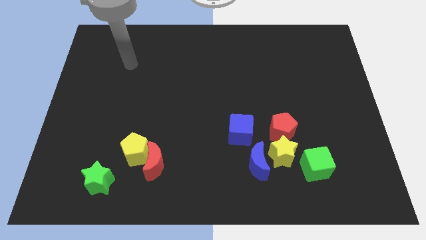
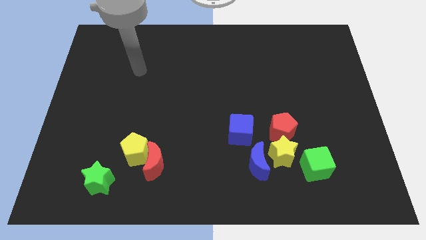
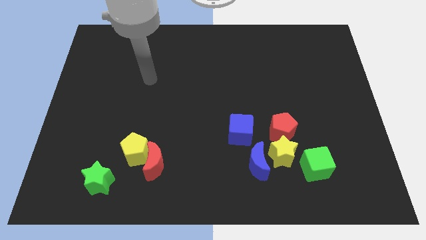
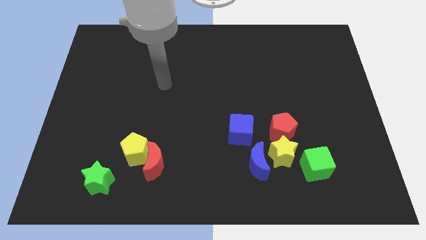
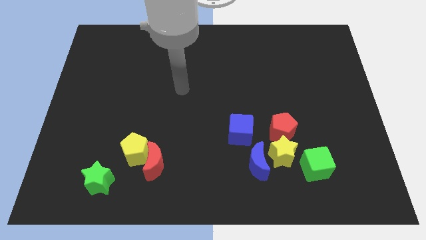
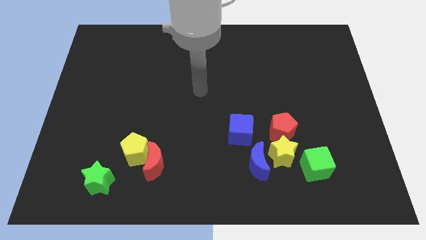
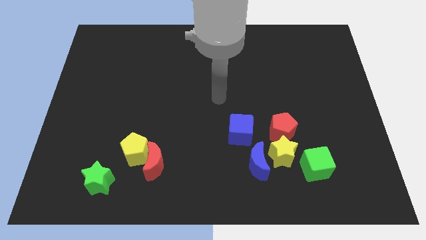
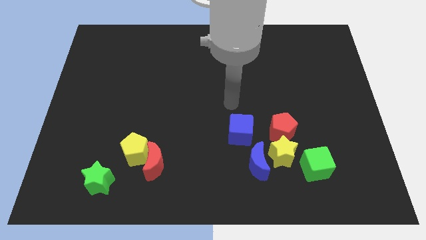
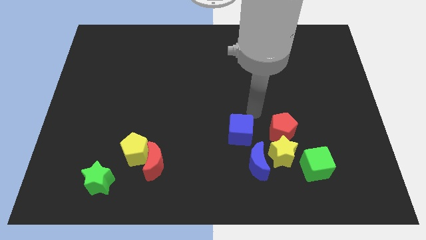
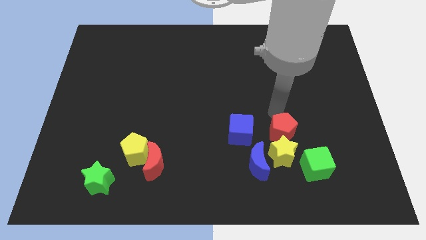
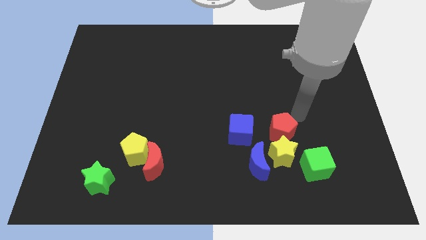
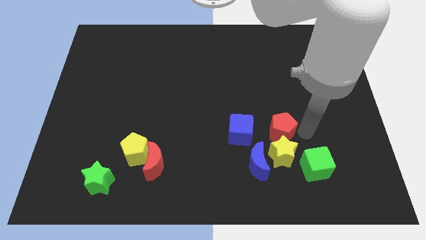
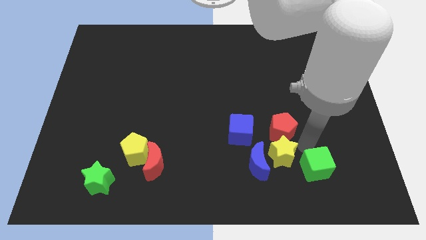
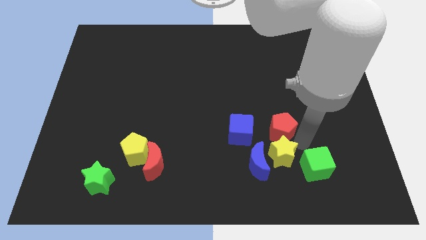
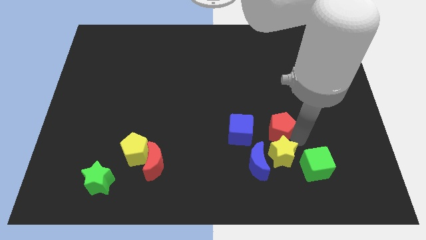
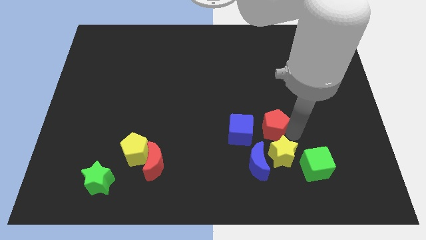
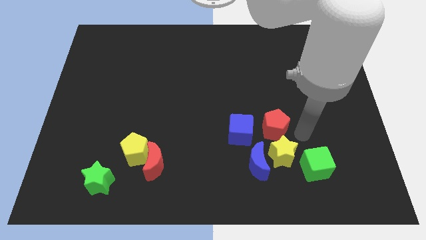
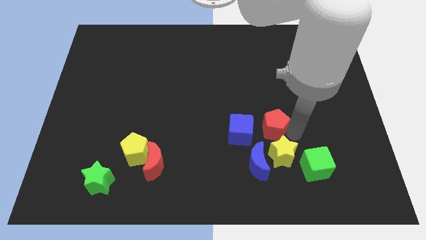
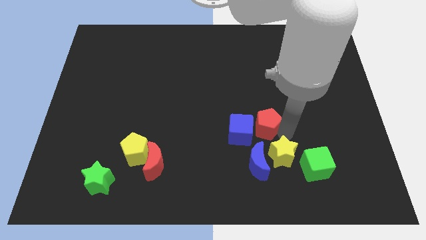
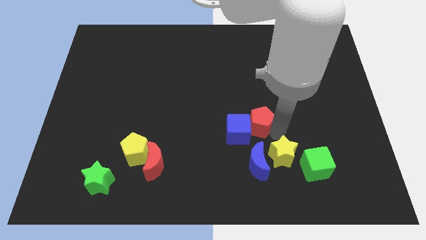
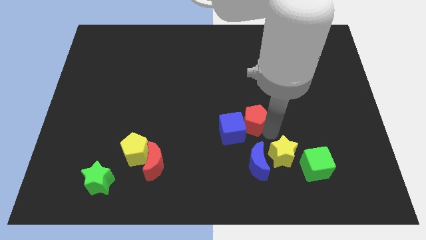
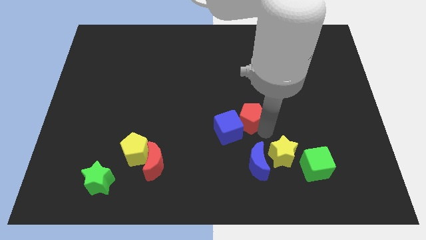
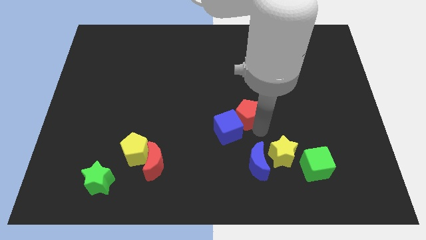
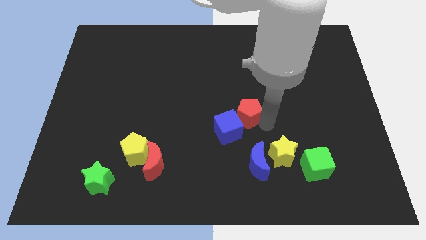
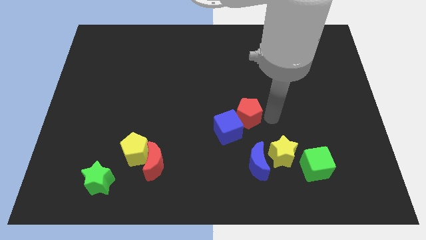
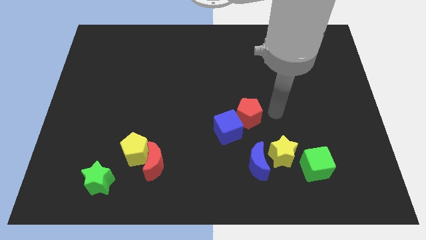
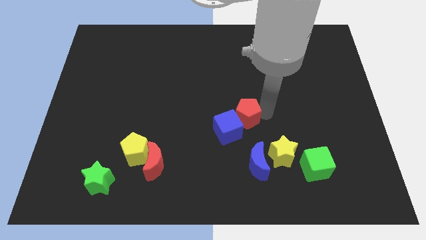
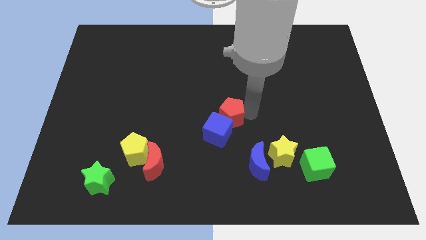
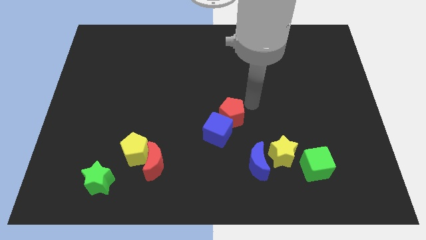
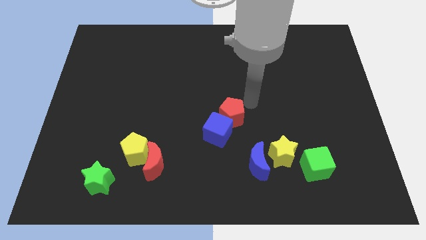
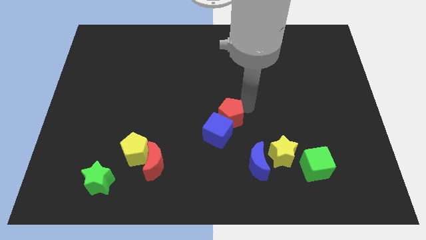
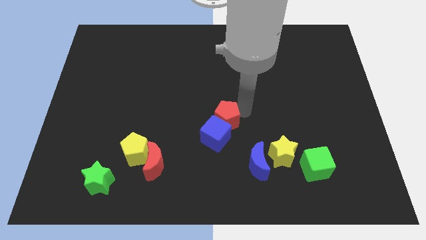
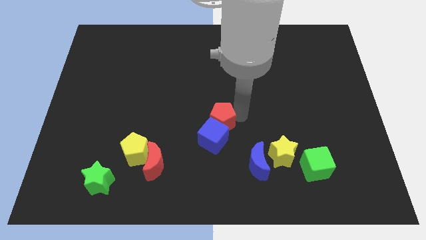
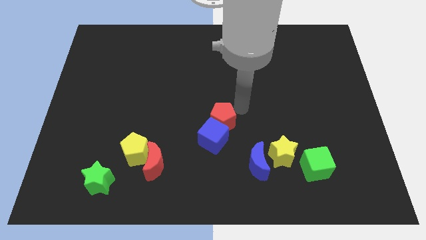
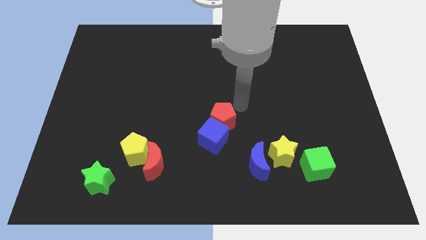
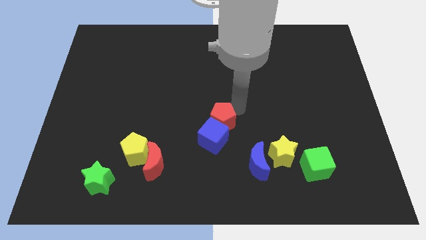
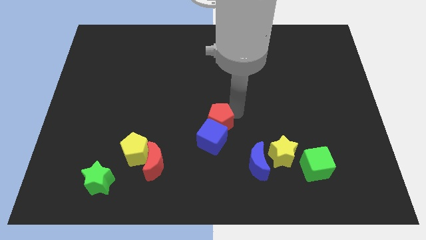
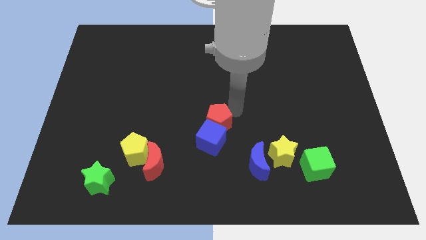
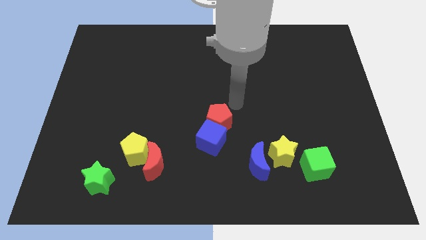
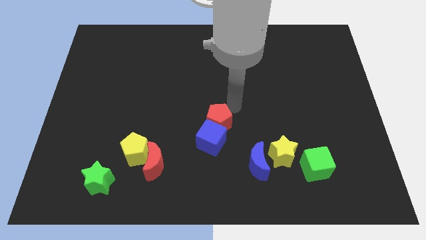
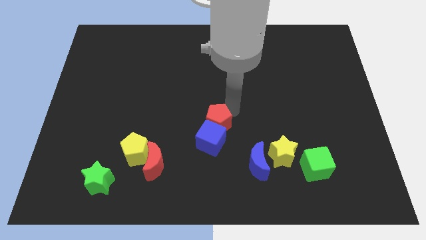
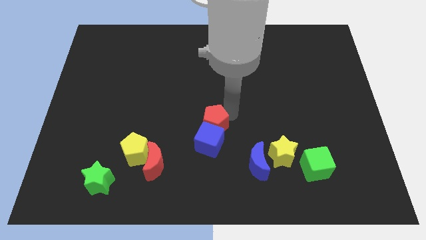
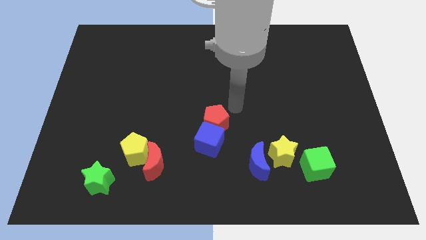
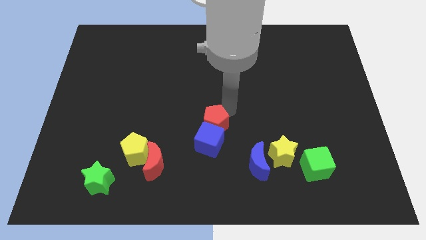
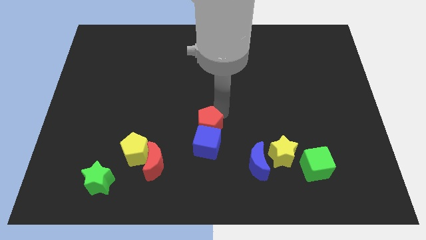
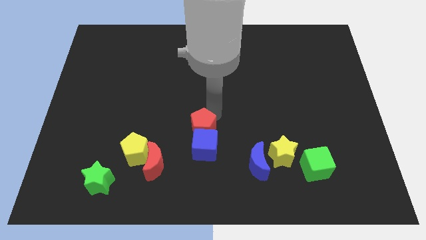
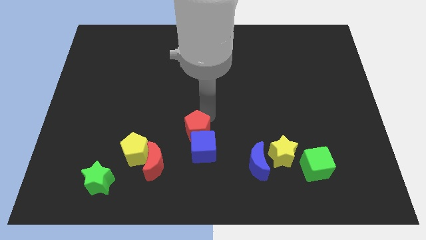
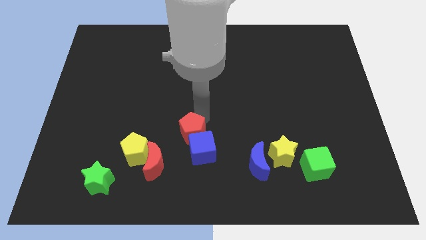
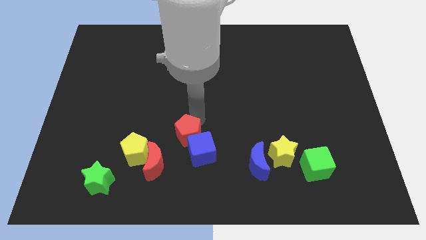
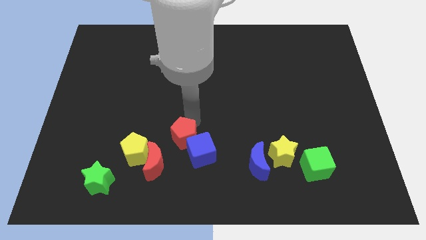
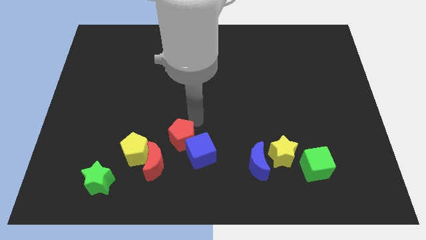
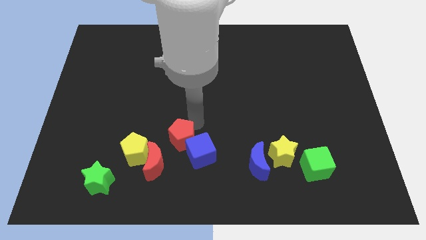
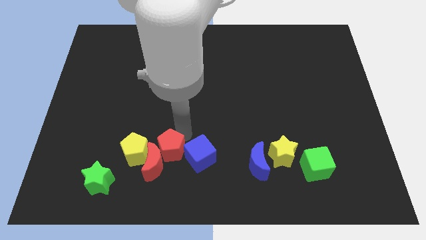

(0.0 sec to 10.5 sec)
move the red pentagon close to the red moon

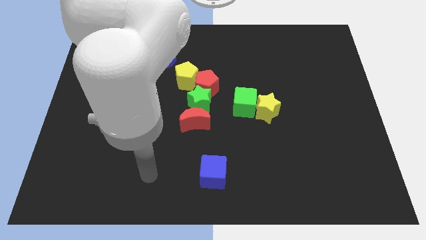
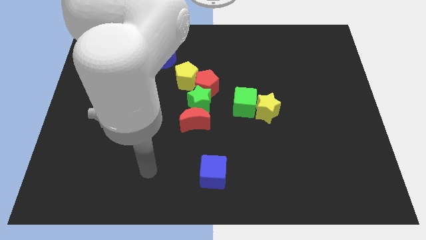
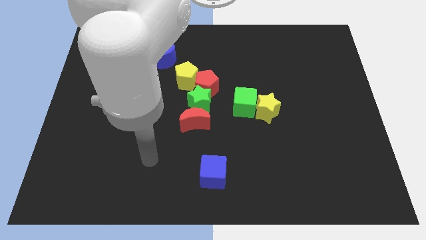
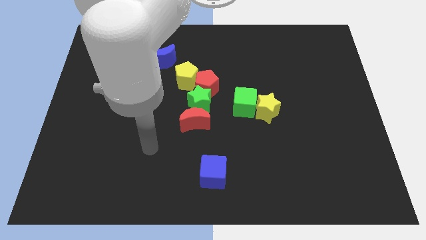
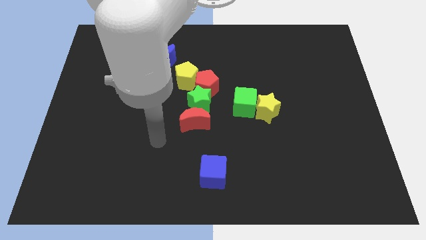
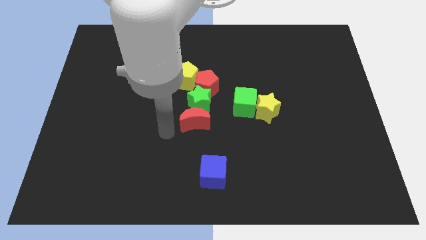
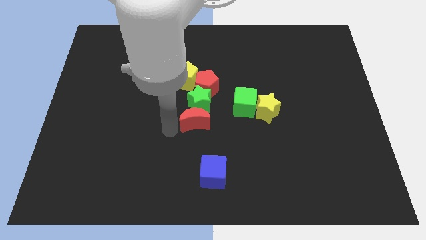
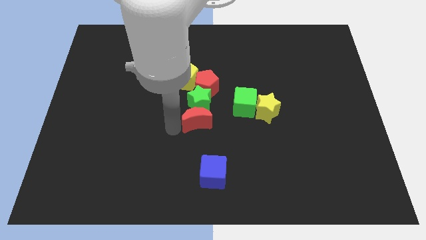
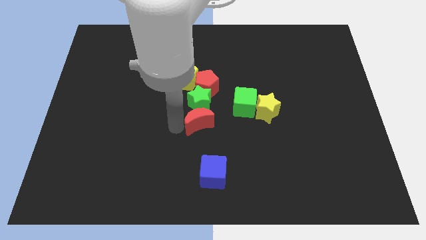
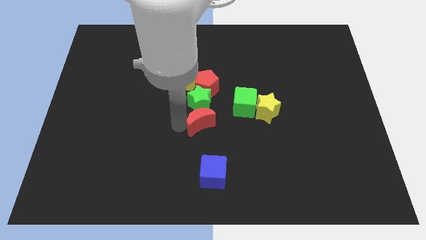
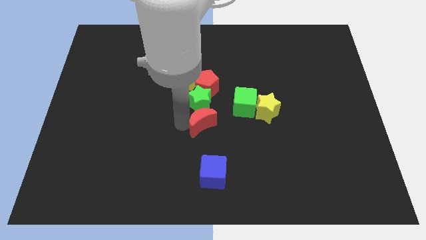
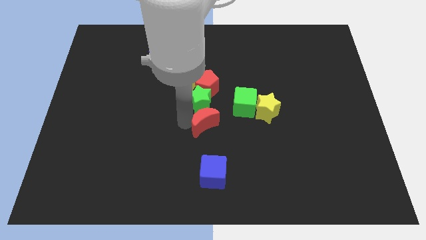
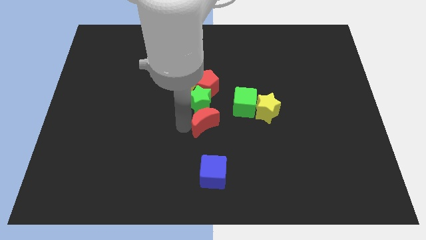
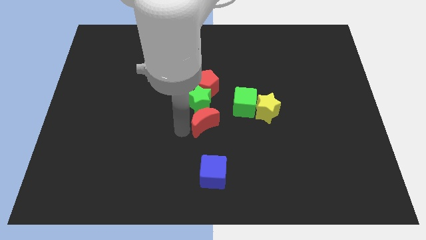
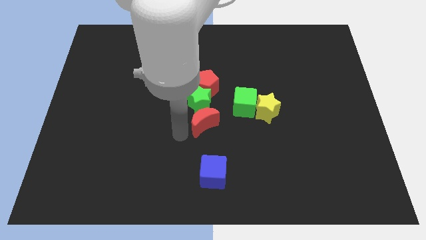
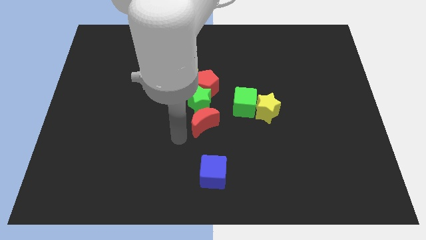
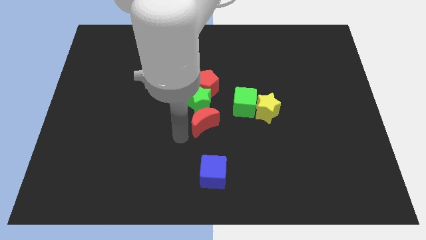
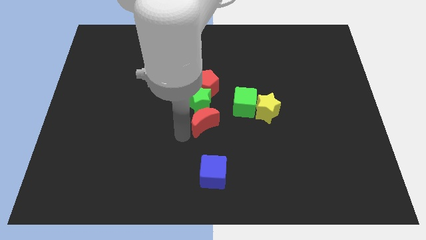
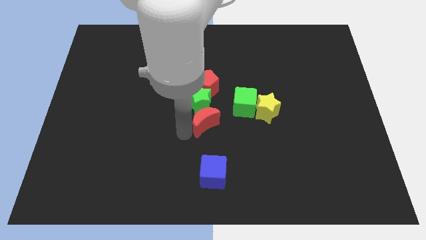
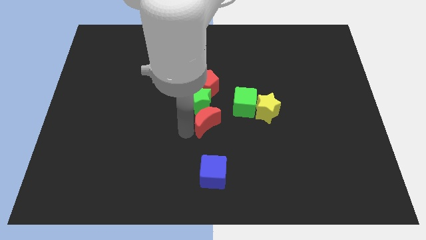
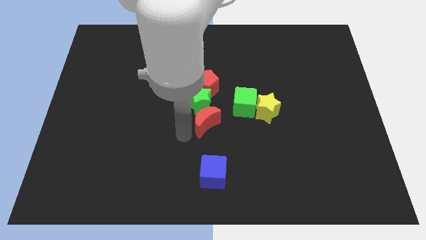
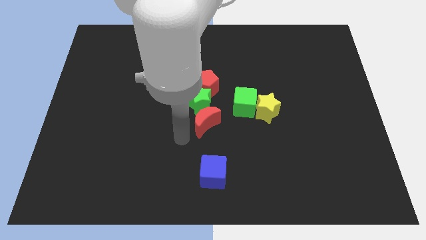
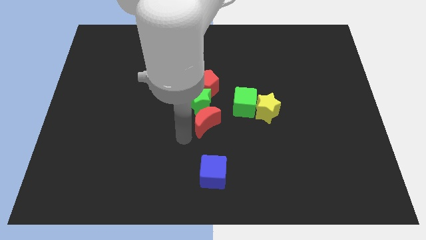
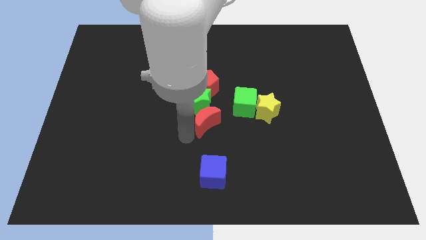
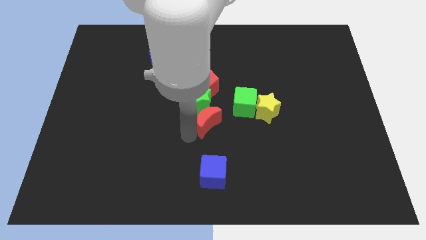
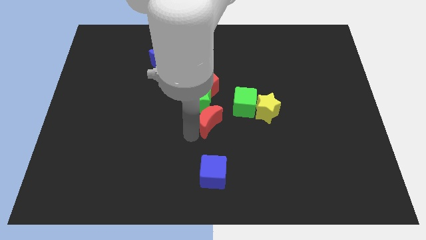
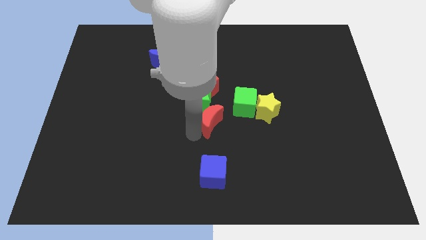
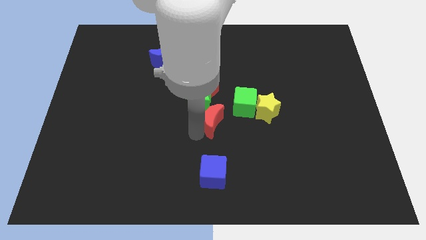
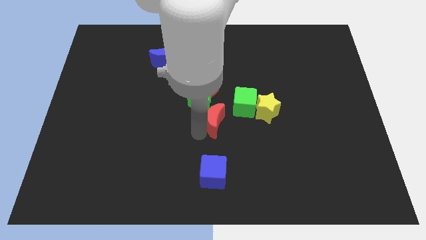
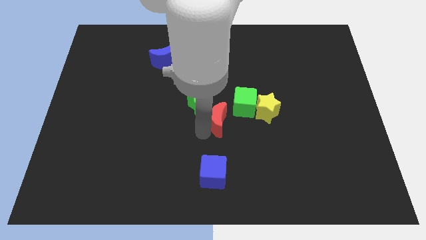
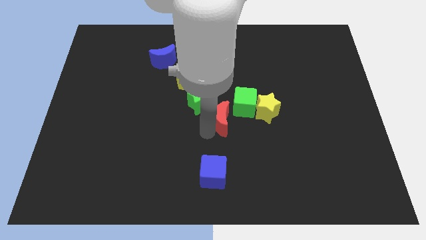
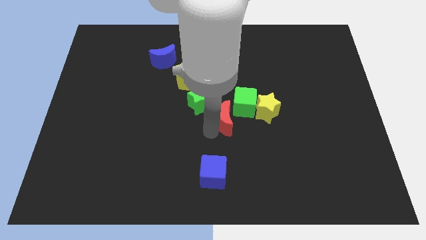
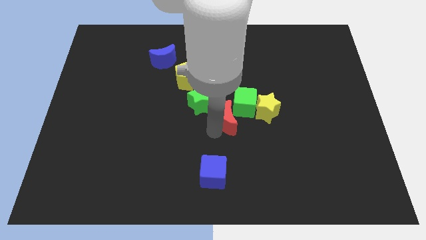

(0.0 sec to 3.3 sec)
put the red moon close to the green cube
